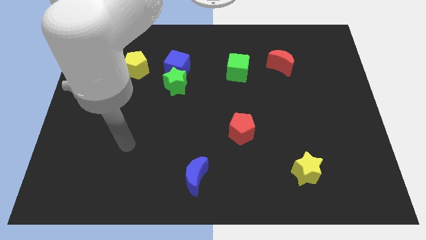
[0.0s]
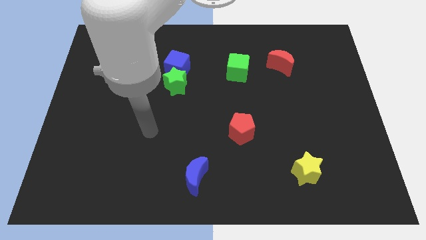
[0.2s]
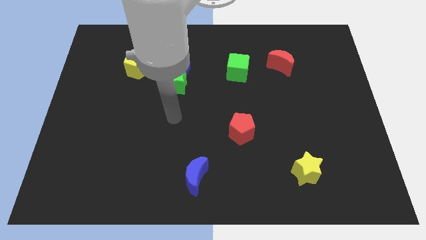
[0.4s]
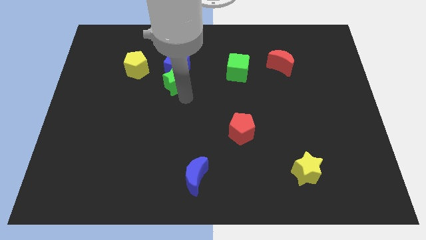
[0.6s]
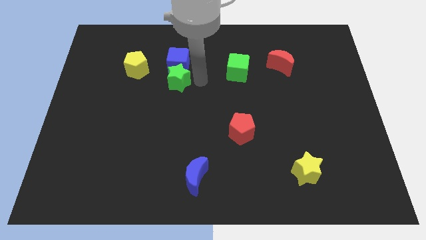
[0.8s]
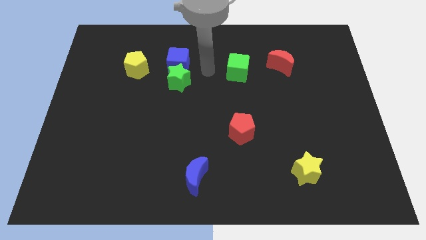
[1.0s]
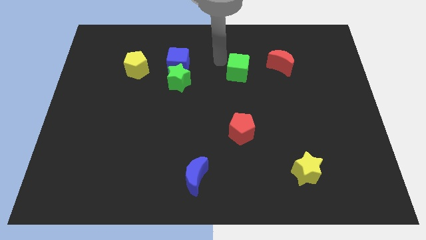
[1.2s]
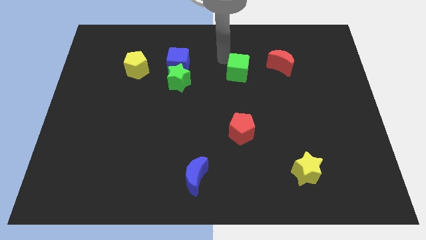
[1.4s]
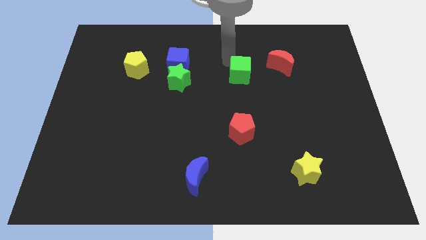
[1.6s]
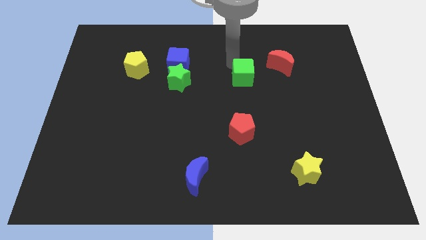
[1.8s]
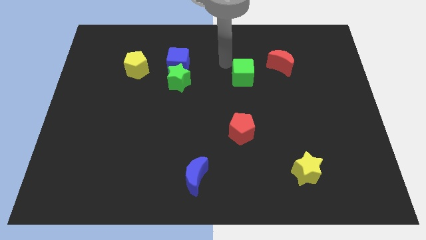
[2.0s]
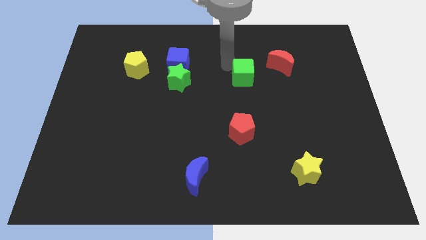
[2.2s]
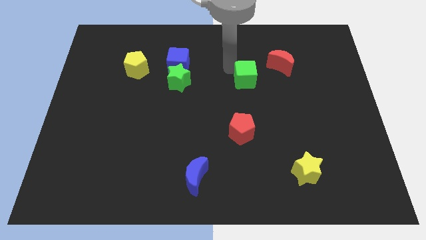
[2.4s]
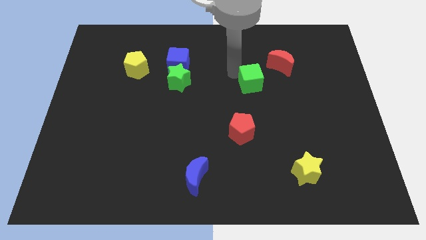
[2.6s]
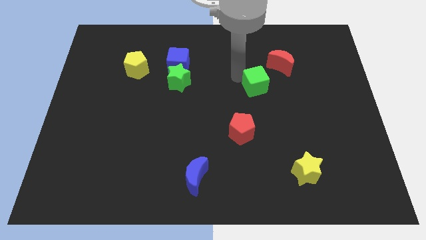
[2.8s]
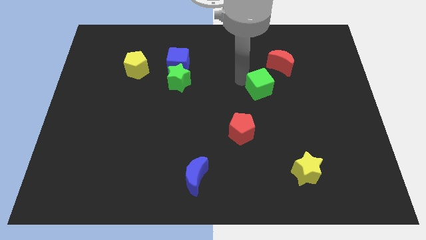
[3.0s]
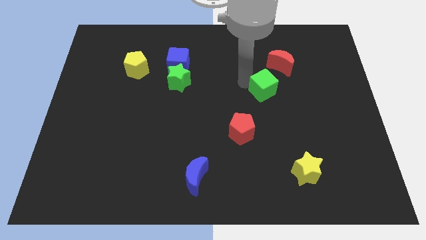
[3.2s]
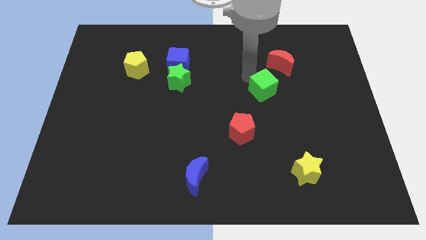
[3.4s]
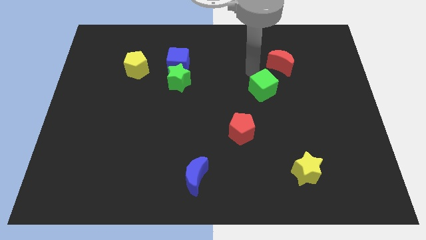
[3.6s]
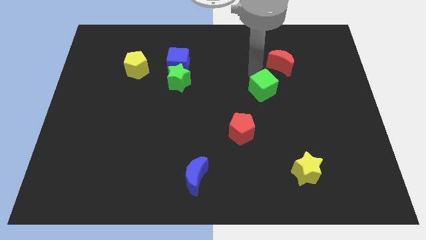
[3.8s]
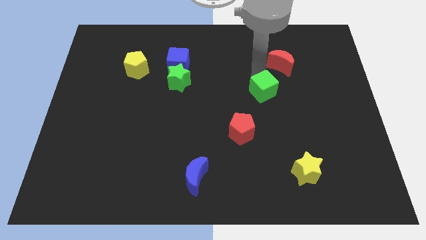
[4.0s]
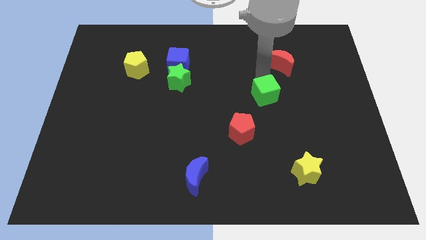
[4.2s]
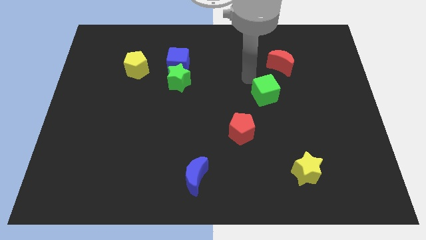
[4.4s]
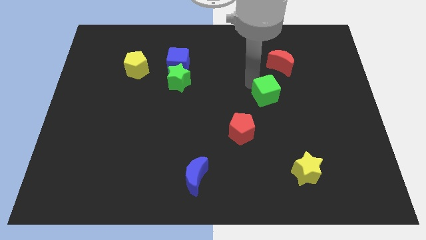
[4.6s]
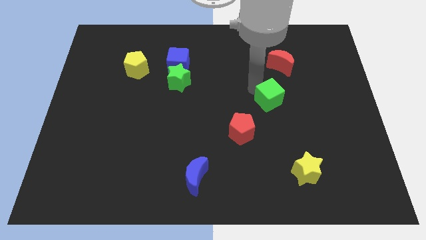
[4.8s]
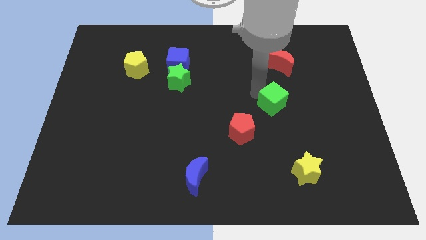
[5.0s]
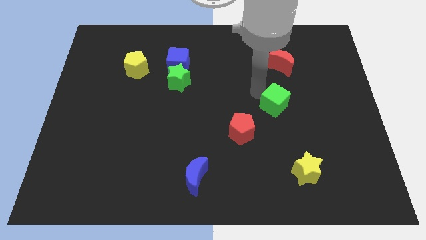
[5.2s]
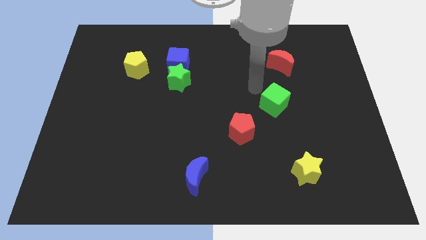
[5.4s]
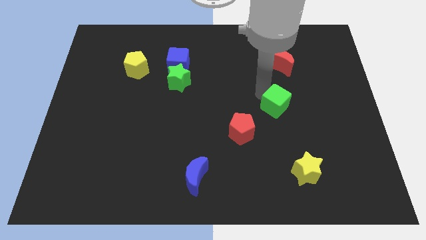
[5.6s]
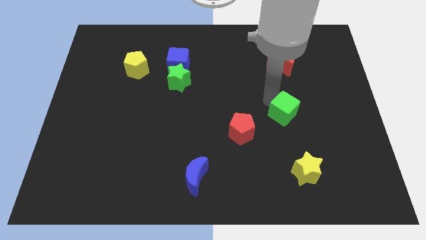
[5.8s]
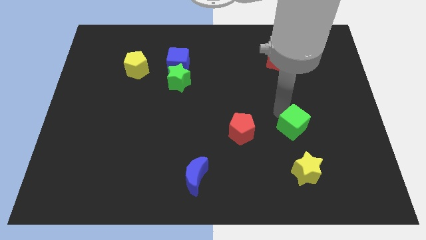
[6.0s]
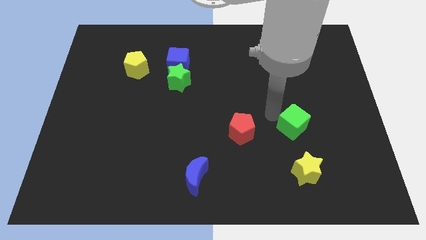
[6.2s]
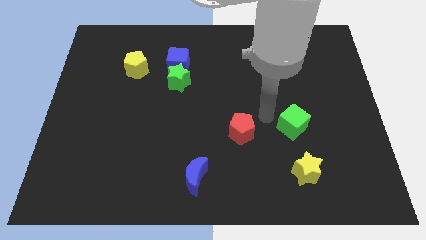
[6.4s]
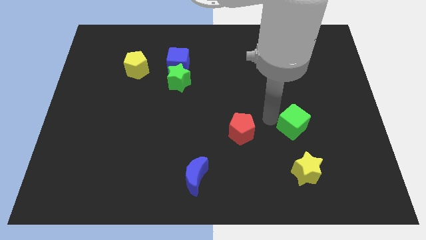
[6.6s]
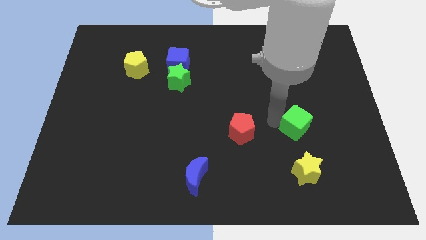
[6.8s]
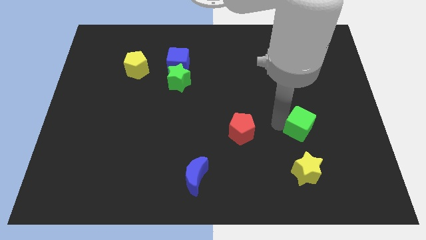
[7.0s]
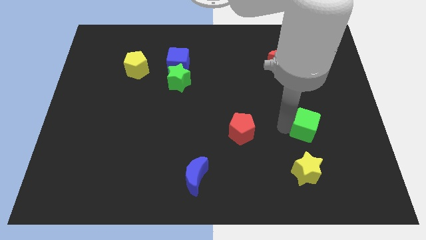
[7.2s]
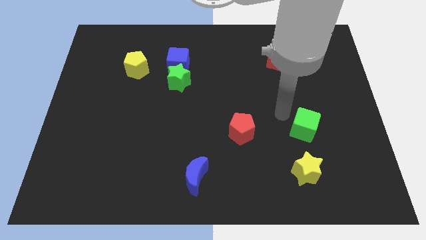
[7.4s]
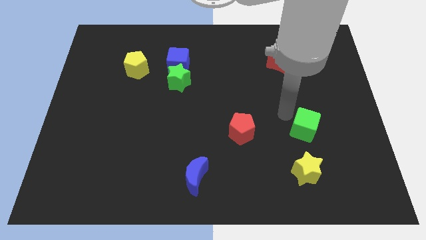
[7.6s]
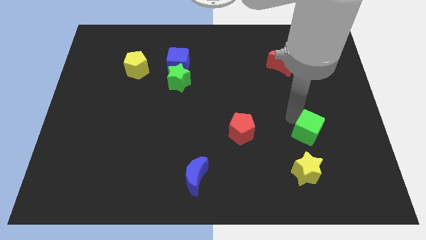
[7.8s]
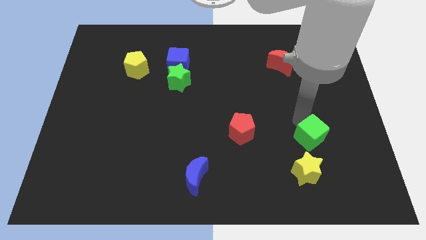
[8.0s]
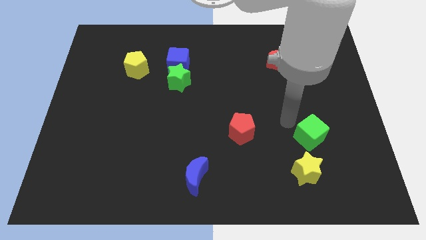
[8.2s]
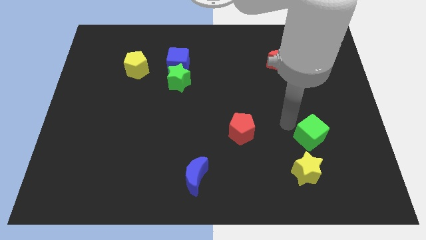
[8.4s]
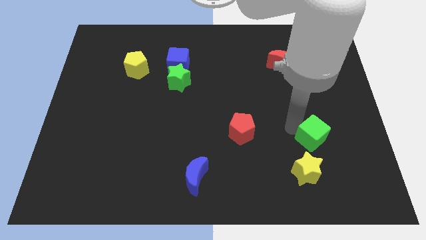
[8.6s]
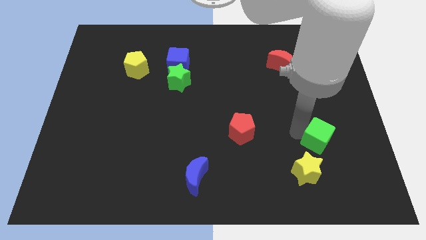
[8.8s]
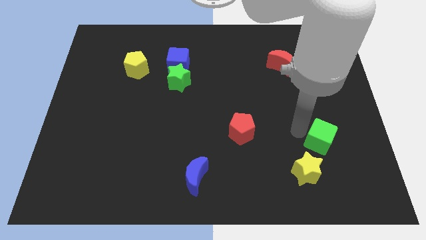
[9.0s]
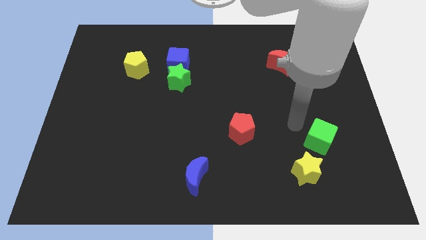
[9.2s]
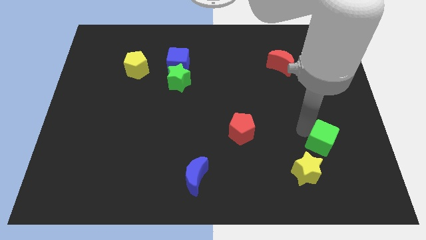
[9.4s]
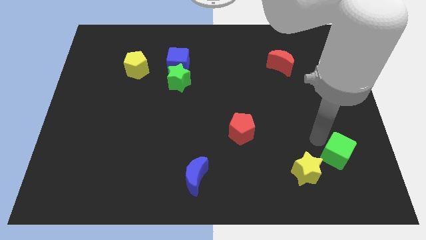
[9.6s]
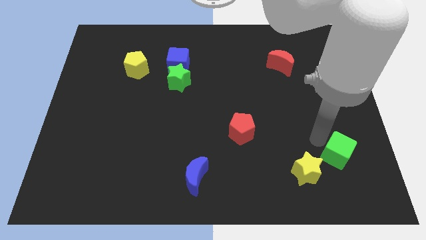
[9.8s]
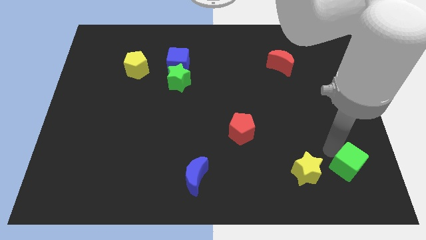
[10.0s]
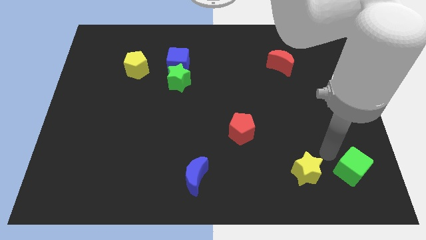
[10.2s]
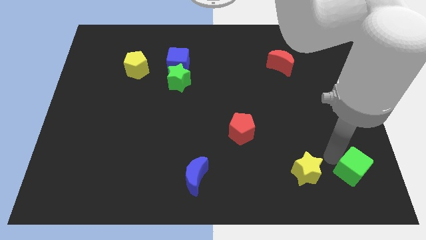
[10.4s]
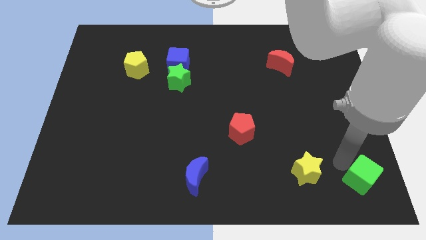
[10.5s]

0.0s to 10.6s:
put the green cube to the bottom right corner

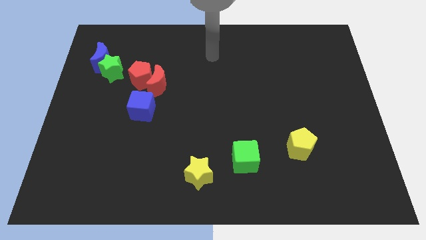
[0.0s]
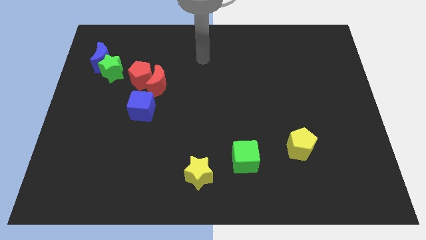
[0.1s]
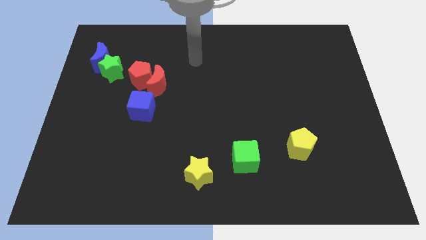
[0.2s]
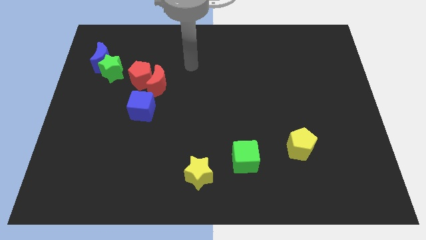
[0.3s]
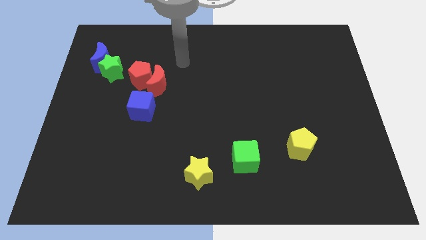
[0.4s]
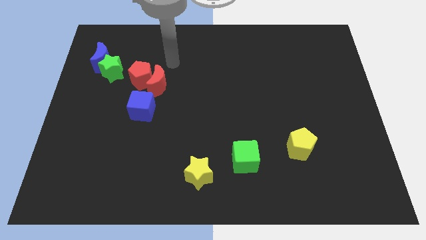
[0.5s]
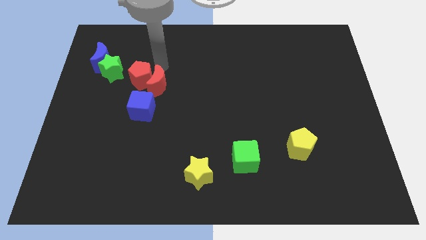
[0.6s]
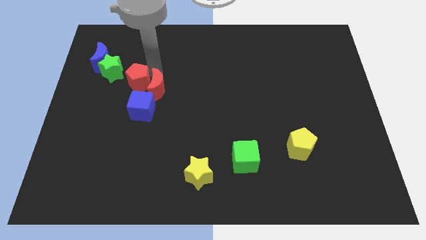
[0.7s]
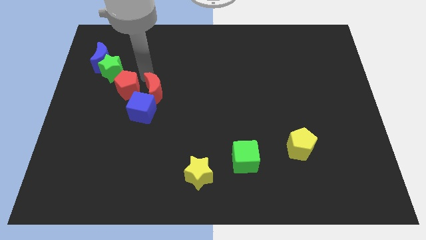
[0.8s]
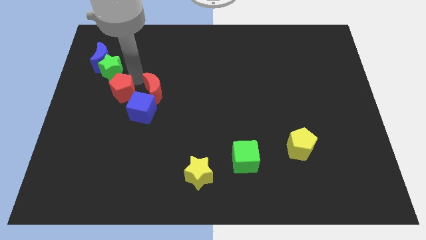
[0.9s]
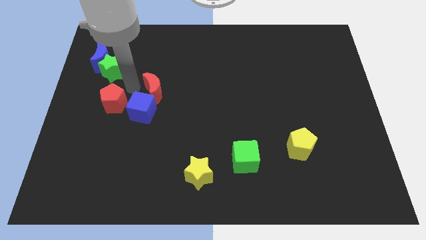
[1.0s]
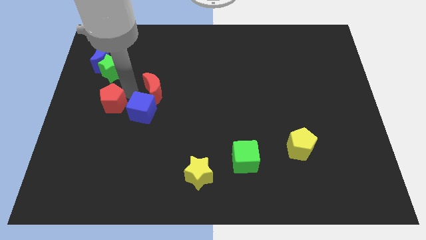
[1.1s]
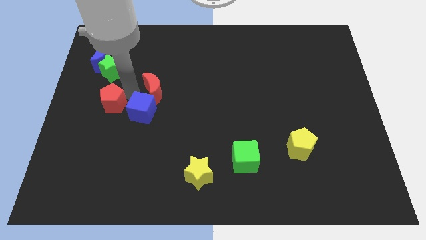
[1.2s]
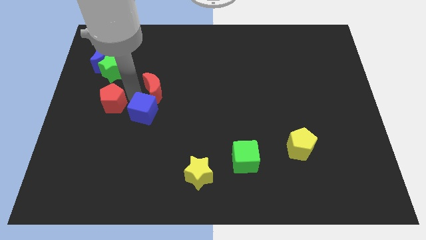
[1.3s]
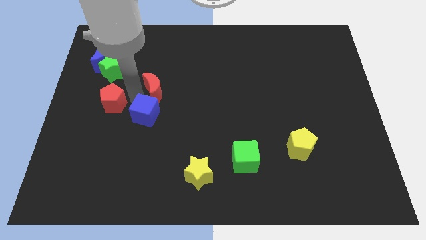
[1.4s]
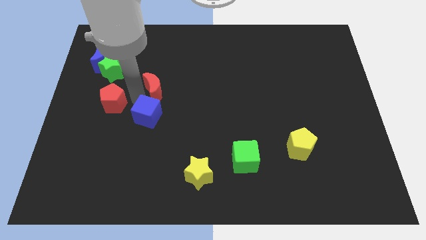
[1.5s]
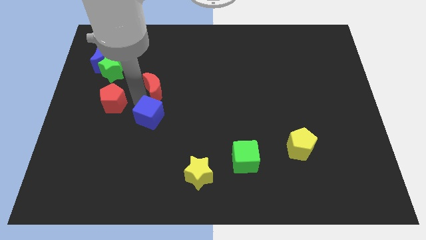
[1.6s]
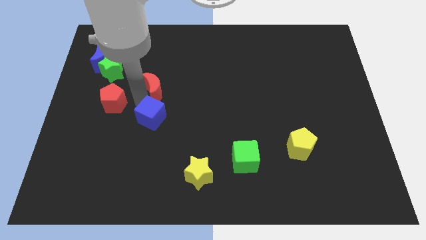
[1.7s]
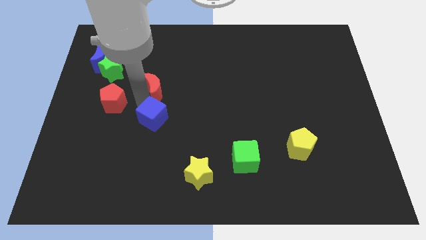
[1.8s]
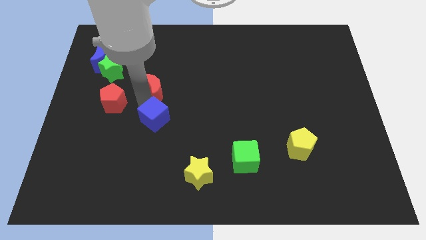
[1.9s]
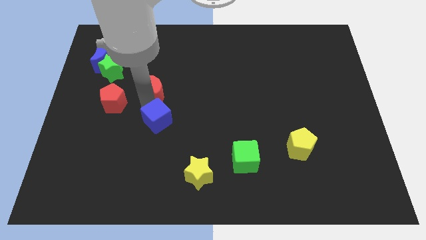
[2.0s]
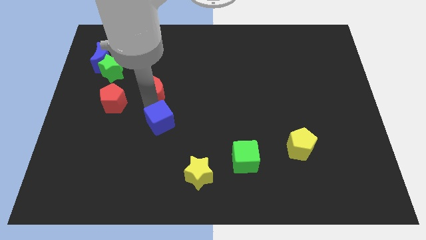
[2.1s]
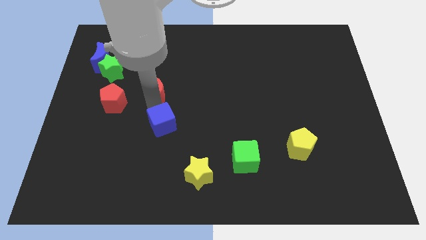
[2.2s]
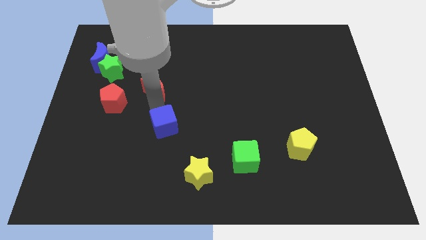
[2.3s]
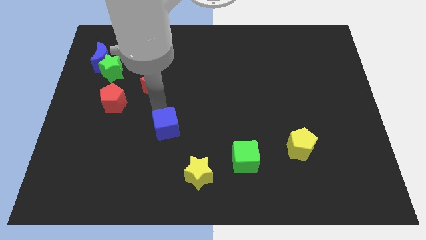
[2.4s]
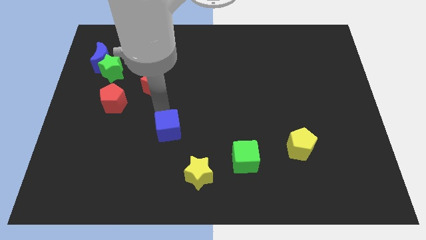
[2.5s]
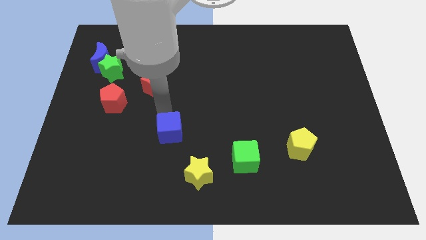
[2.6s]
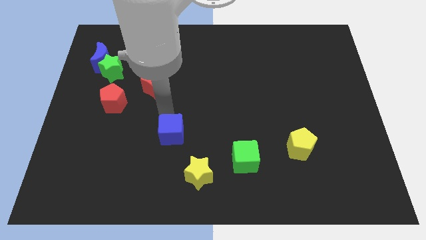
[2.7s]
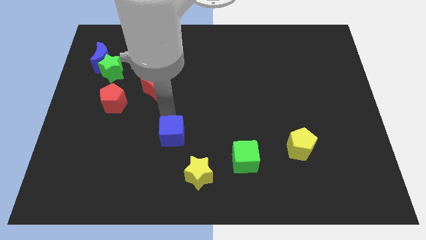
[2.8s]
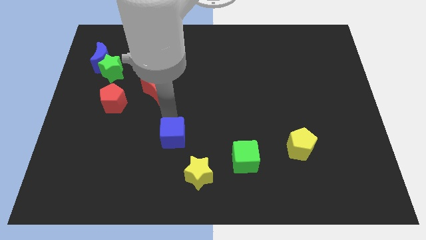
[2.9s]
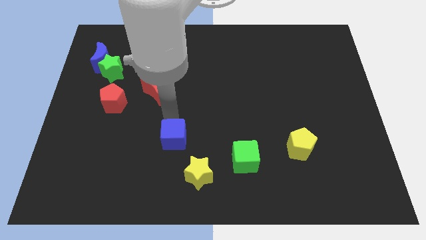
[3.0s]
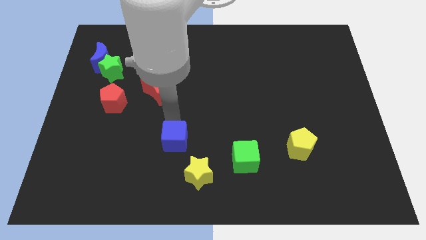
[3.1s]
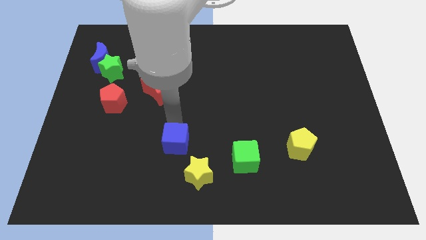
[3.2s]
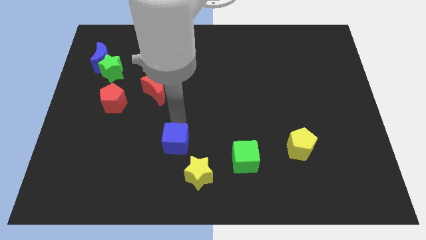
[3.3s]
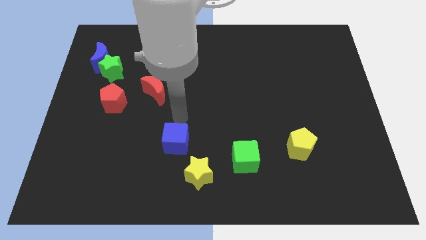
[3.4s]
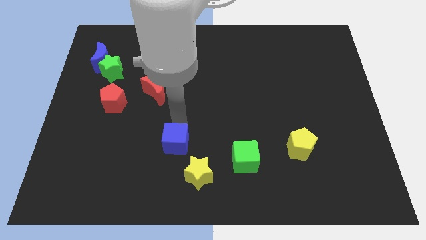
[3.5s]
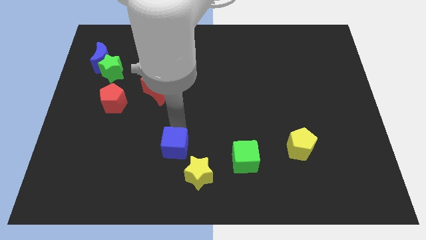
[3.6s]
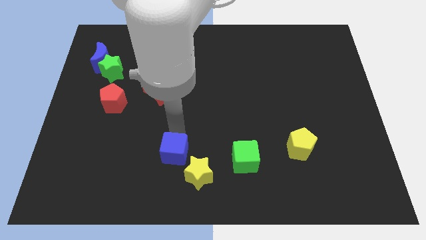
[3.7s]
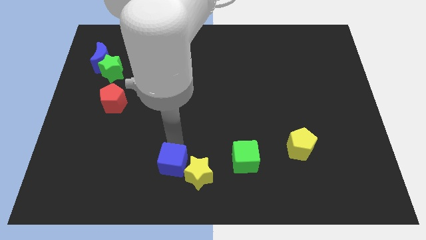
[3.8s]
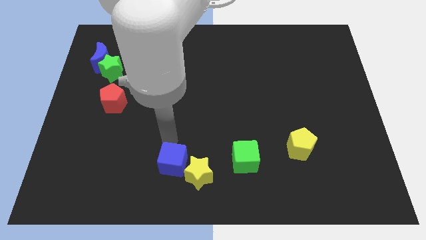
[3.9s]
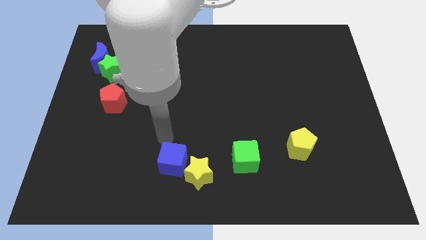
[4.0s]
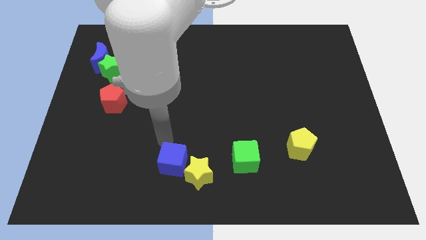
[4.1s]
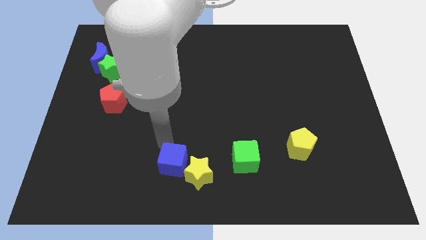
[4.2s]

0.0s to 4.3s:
move the blue cube to the bottom side
